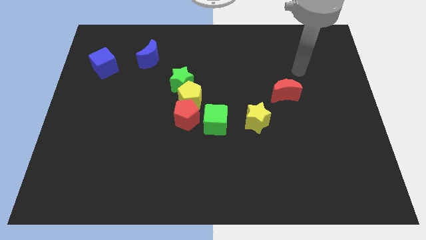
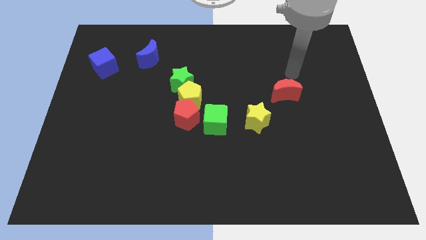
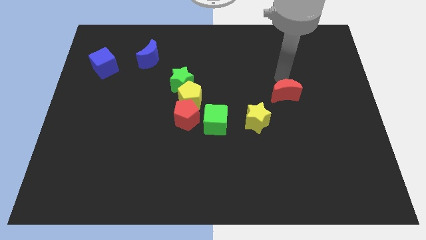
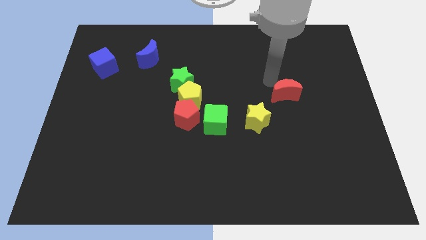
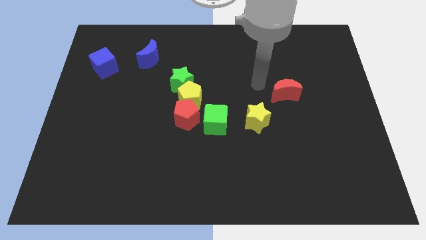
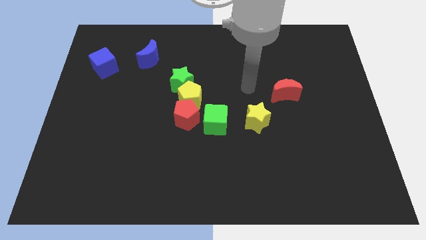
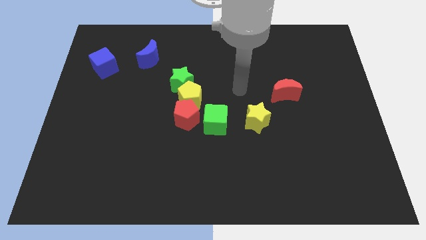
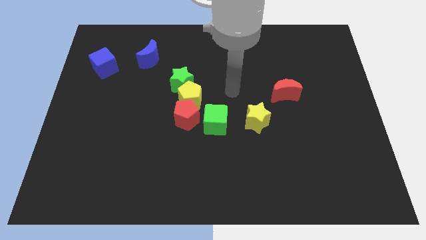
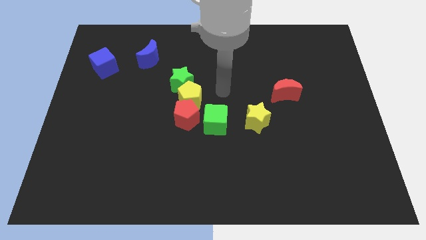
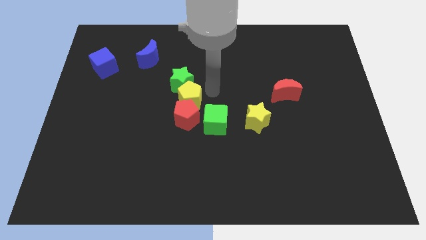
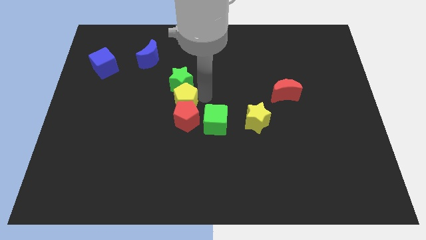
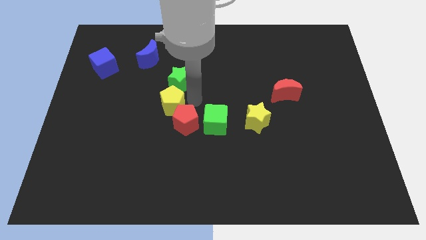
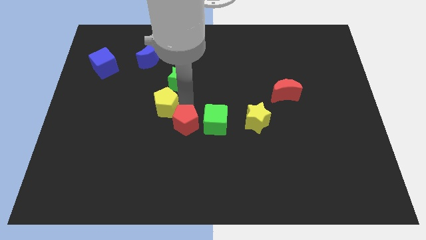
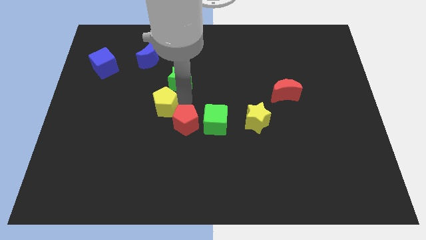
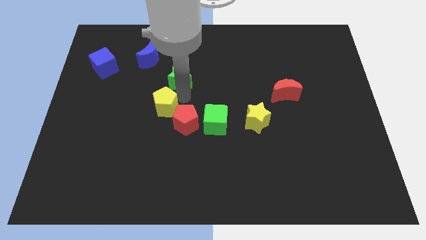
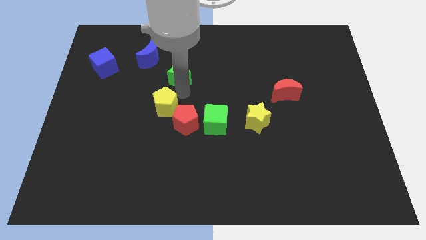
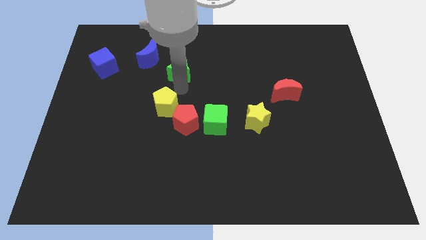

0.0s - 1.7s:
move the green star away from the yellow pentagon

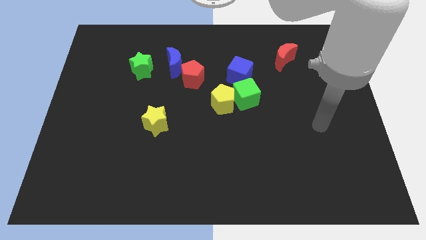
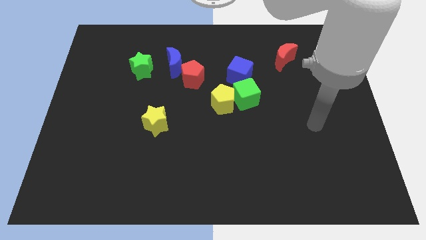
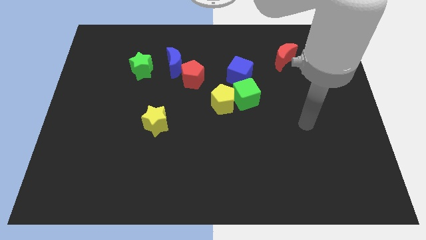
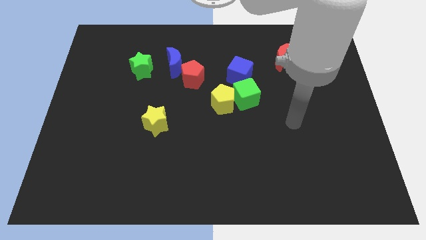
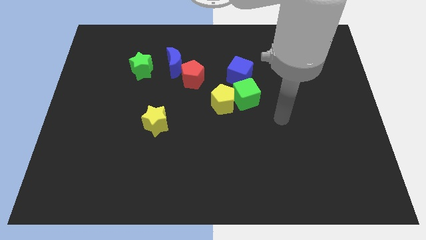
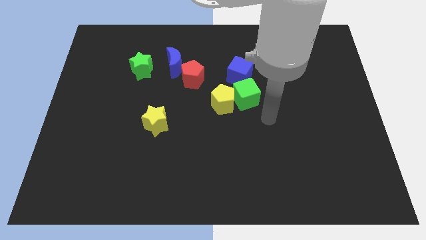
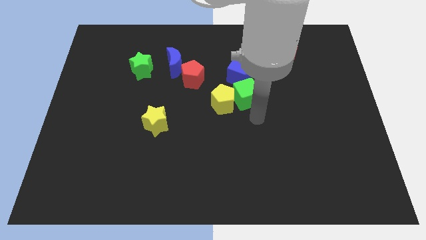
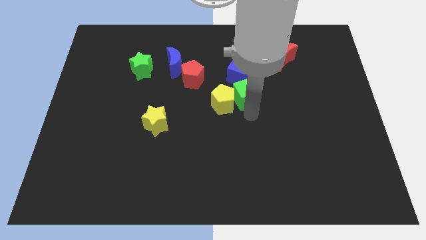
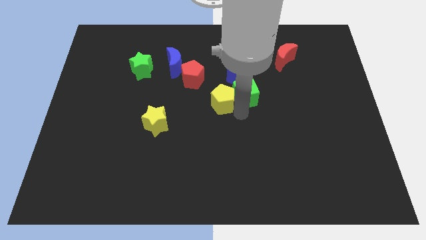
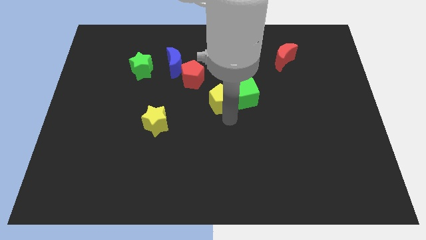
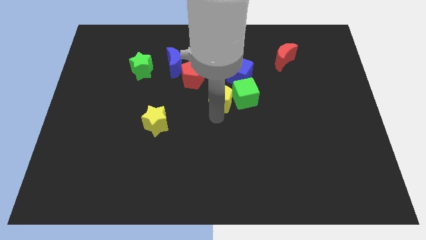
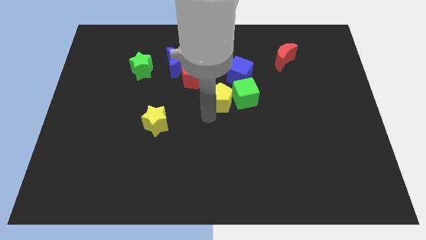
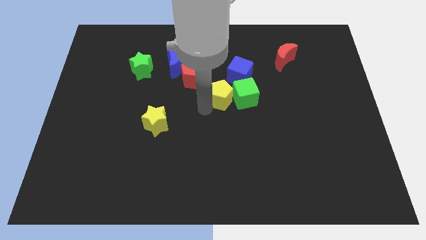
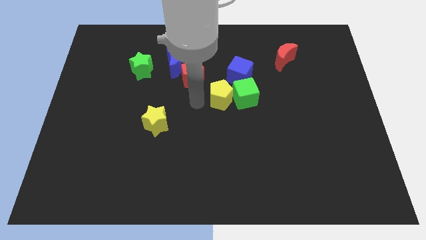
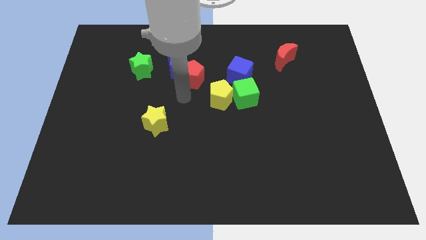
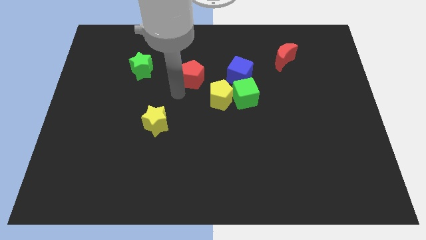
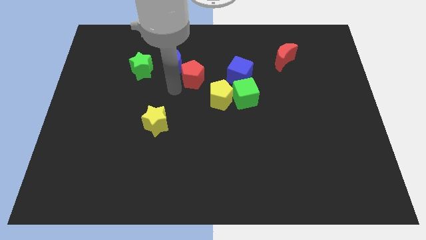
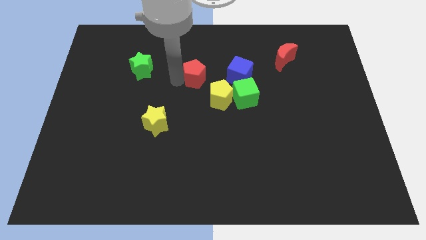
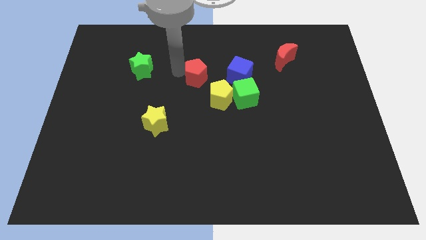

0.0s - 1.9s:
pull the red pentagon apart from the blue moon

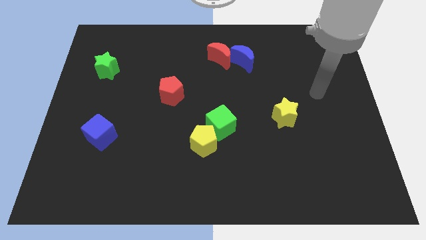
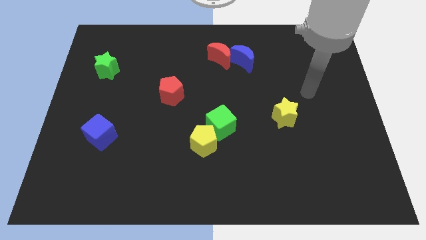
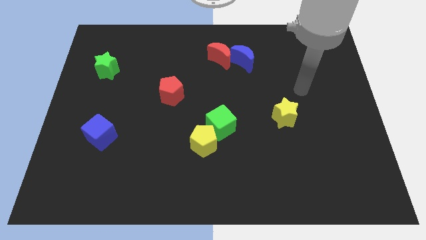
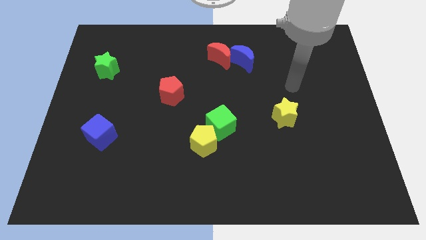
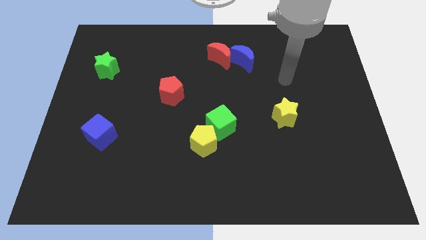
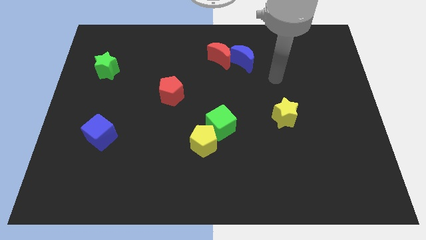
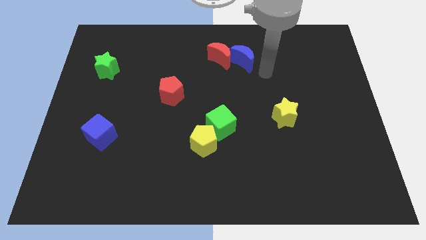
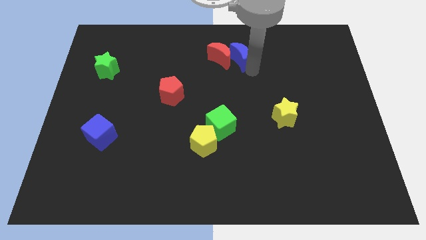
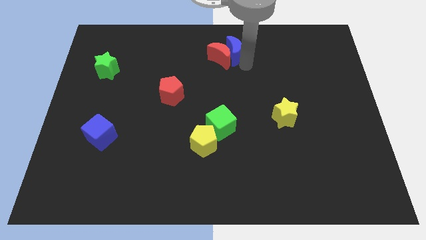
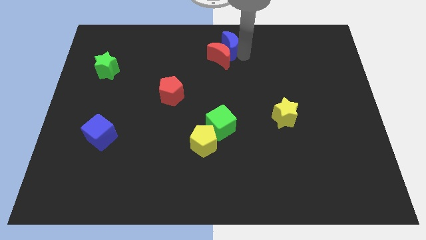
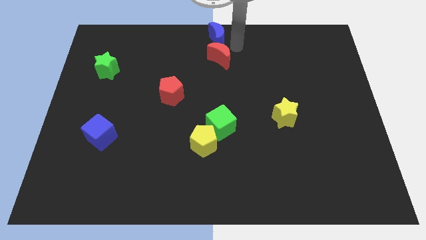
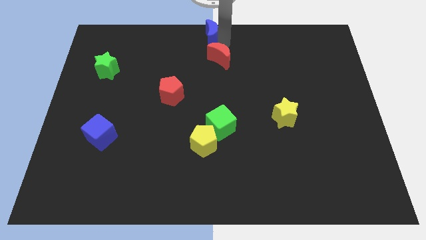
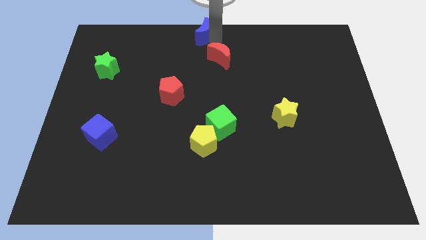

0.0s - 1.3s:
pull the red moon apart from the blue moon

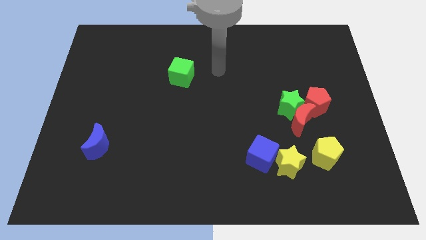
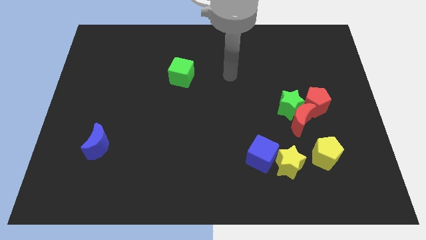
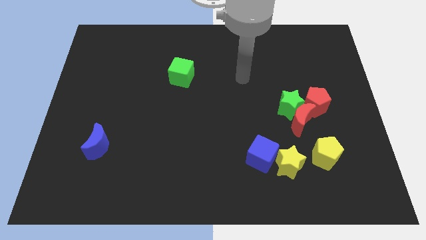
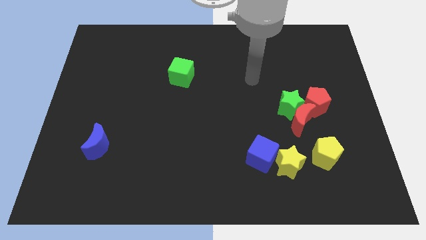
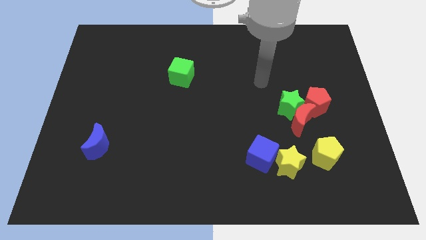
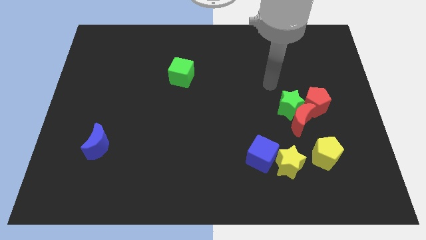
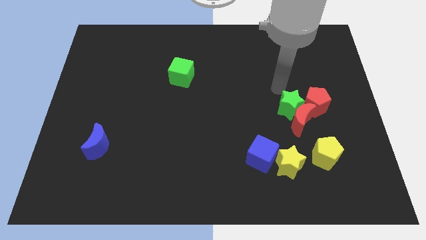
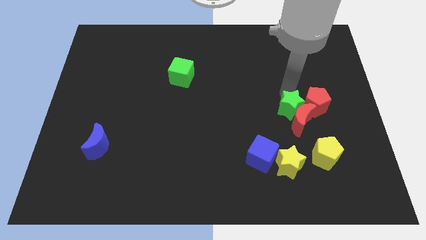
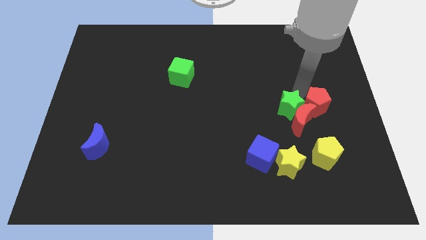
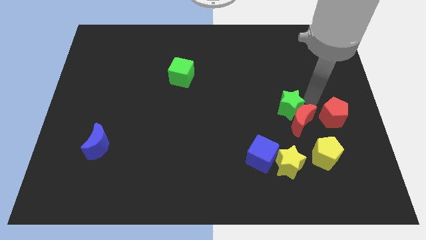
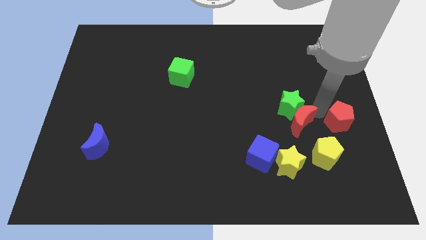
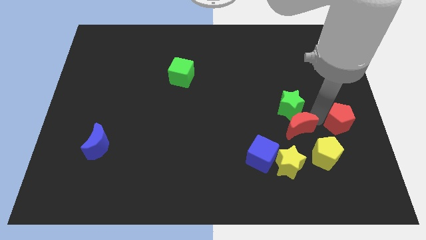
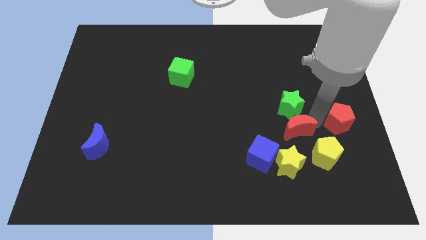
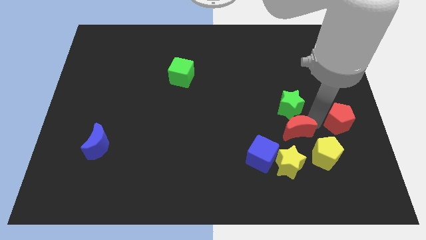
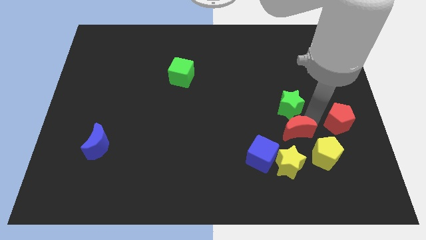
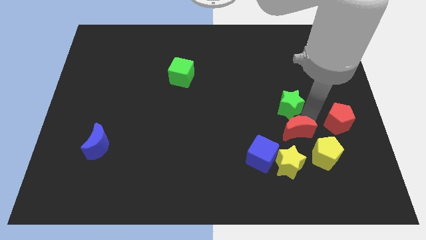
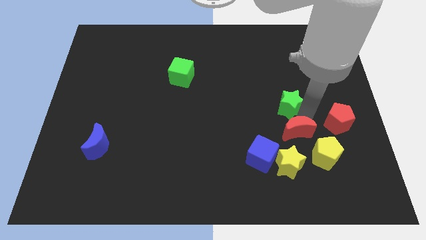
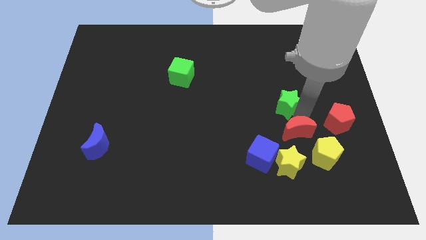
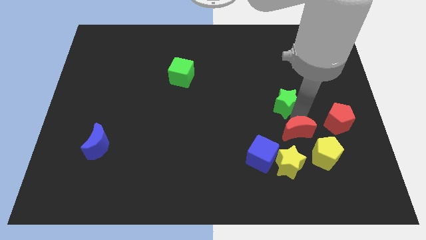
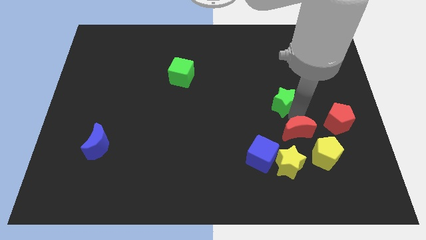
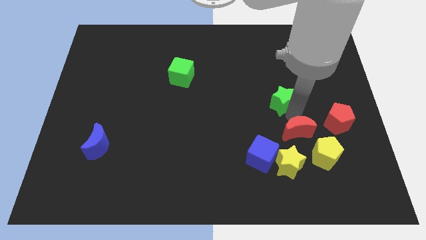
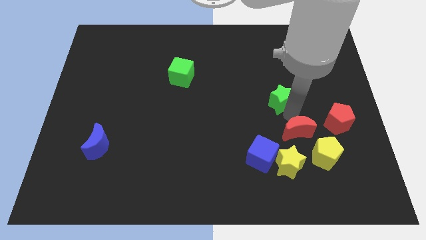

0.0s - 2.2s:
pull the green star apart from the red moon and red pentagon

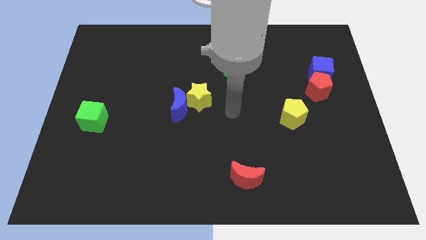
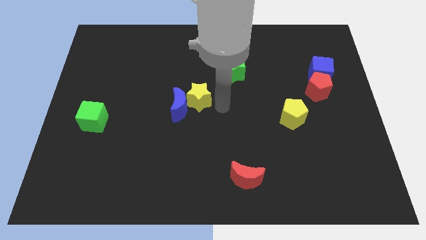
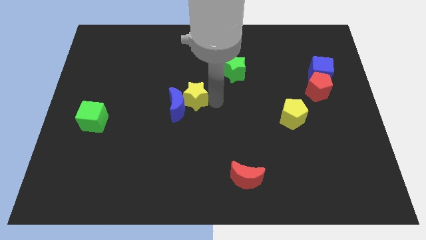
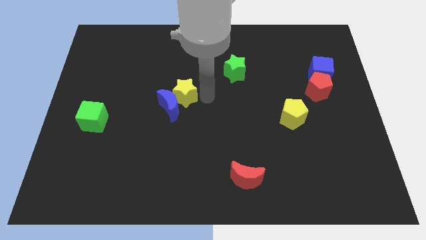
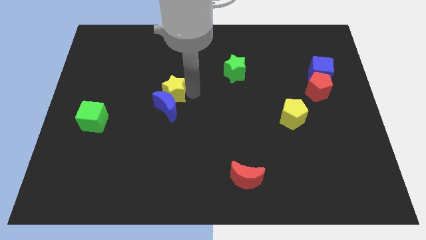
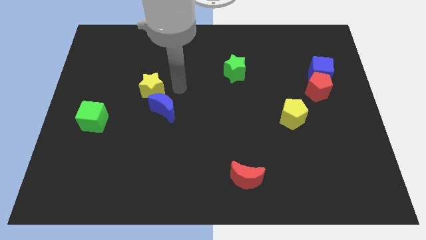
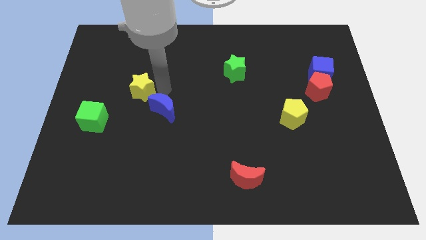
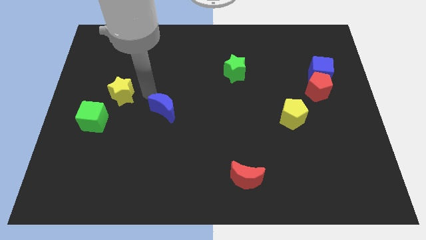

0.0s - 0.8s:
pull the blue moon apart from the yellow star

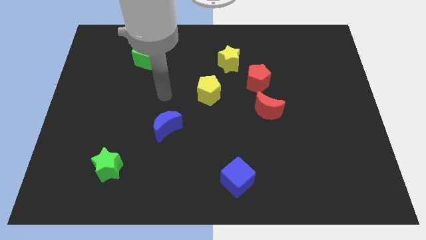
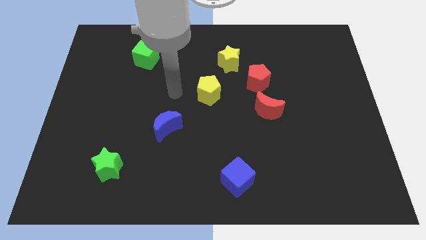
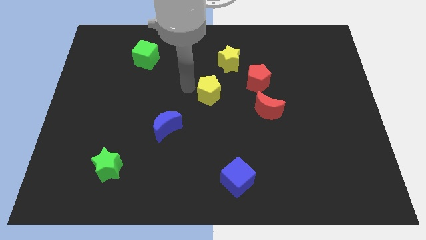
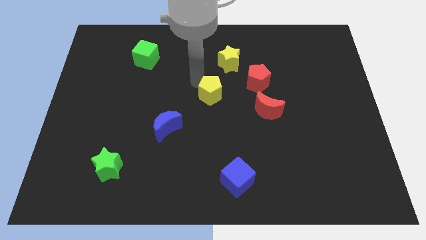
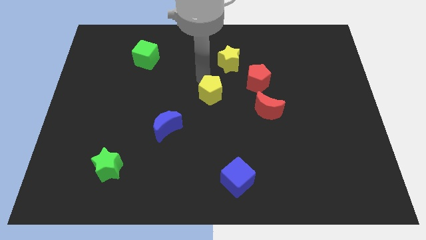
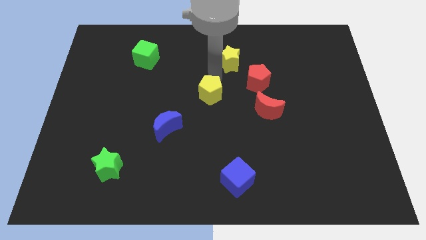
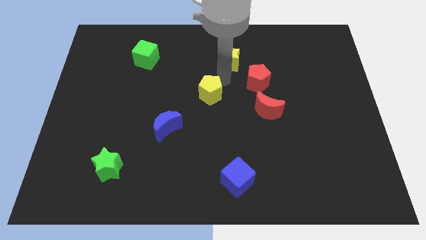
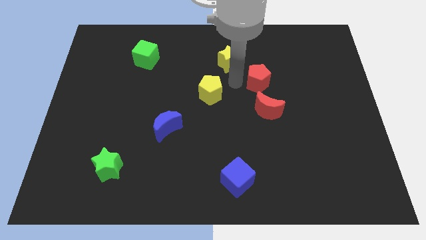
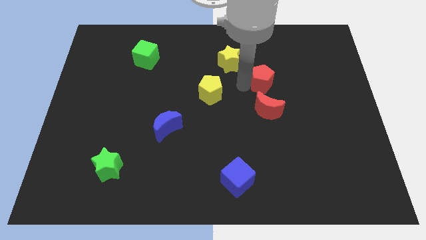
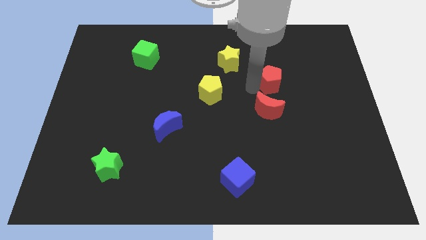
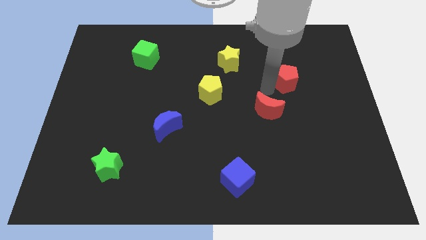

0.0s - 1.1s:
separate the red moon from the red pentagon

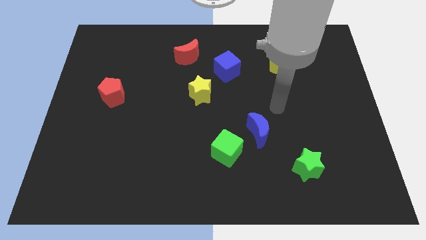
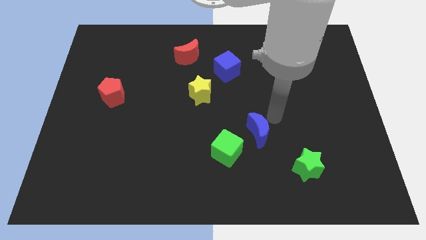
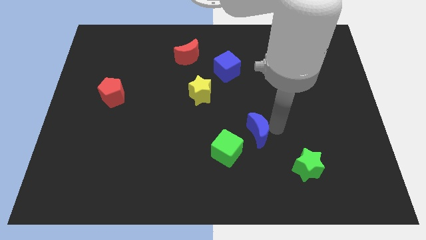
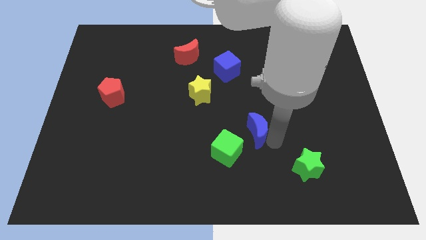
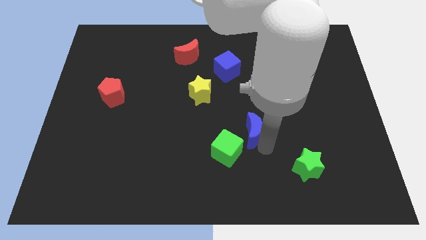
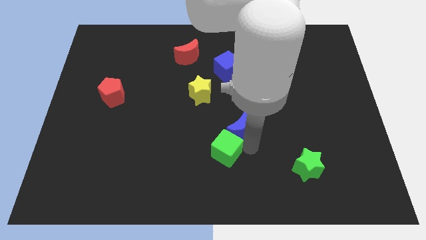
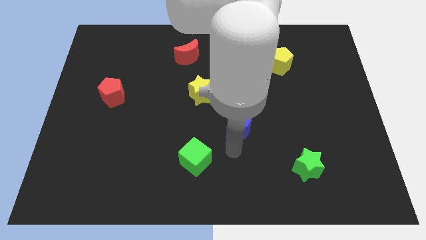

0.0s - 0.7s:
separate the blue moon from the green cube
